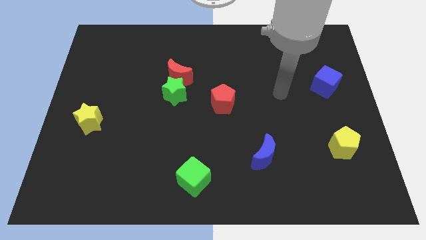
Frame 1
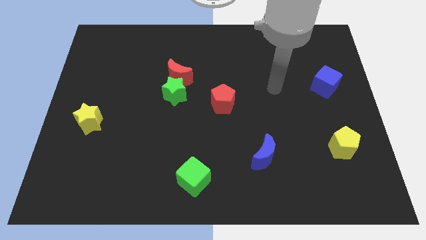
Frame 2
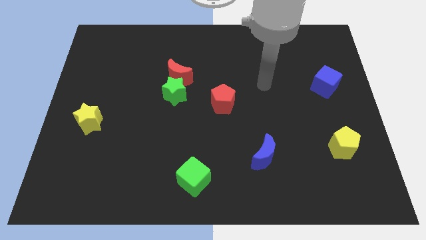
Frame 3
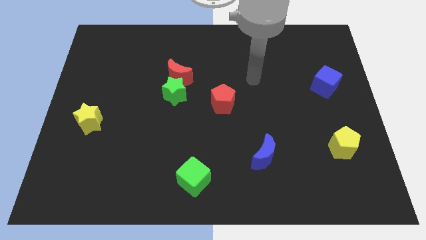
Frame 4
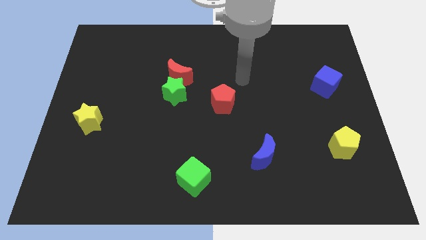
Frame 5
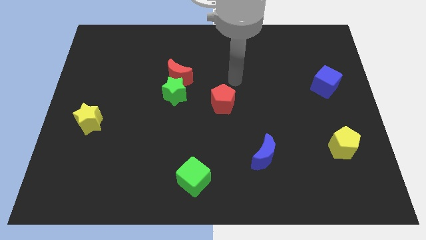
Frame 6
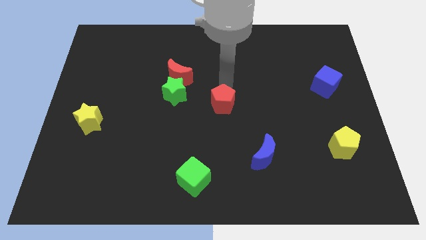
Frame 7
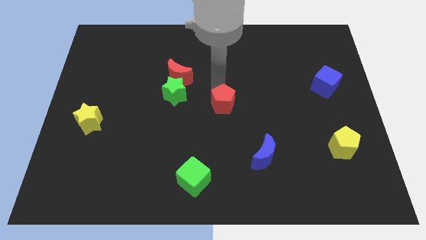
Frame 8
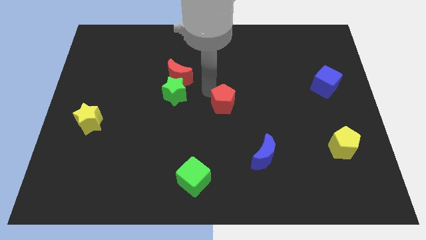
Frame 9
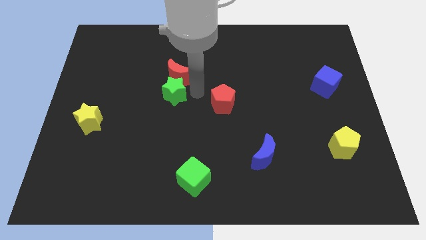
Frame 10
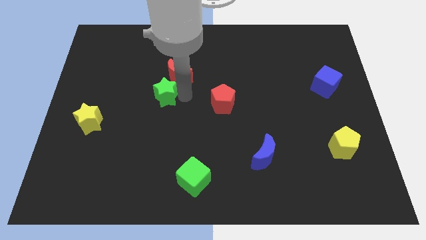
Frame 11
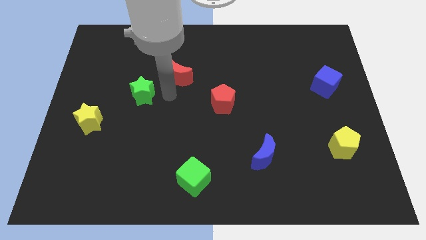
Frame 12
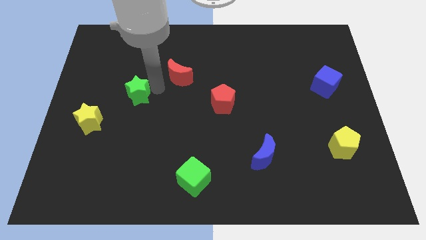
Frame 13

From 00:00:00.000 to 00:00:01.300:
move the red moon away from the green star

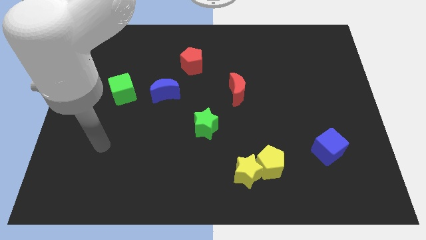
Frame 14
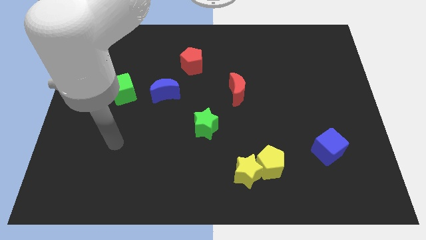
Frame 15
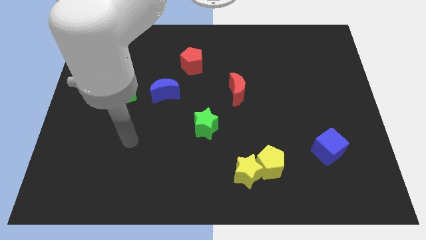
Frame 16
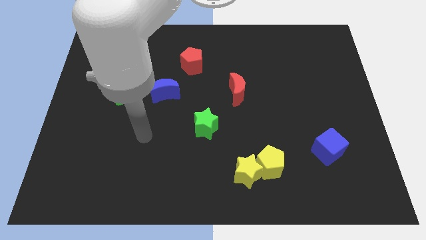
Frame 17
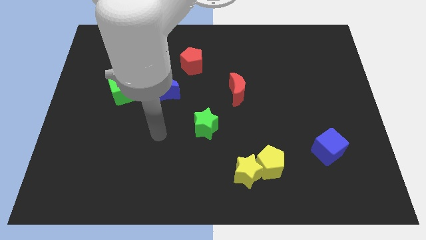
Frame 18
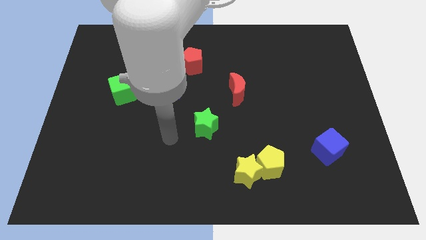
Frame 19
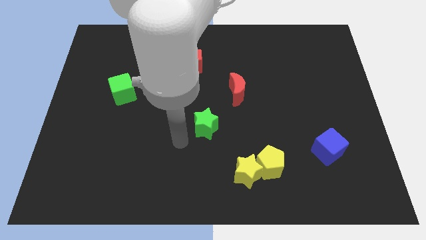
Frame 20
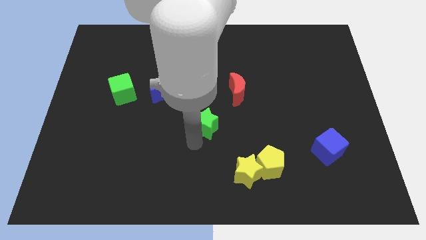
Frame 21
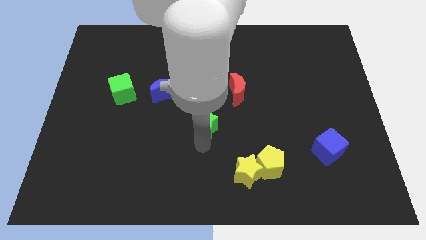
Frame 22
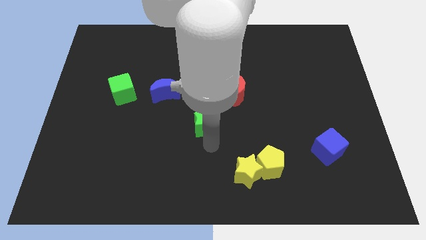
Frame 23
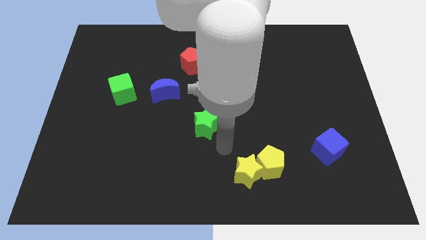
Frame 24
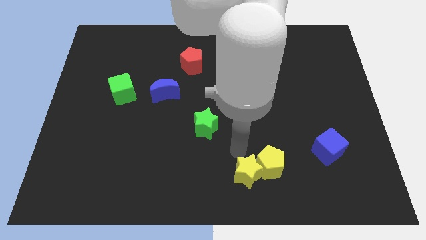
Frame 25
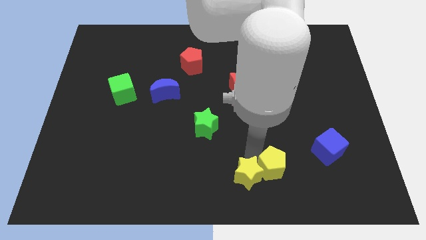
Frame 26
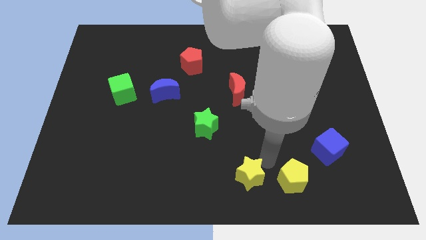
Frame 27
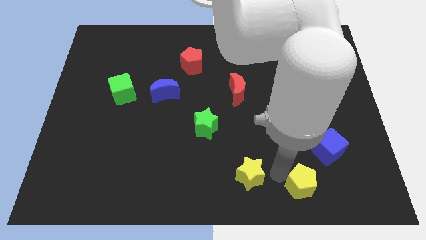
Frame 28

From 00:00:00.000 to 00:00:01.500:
pull the yellow star apart from the yellow pentagon

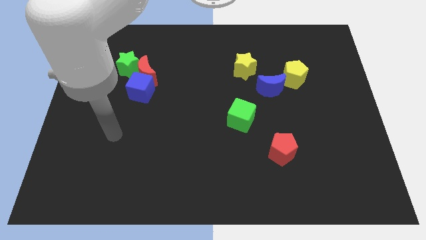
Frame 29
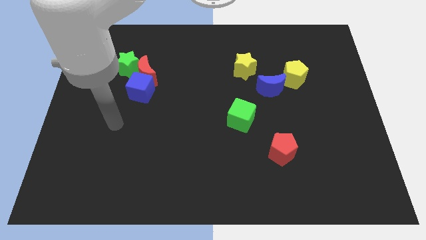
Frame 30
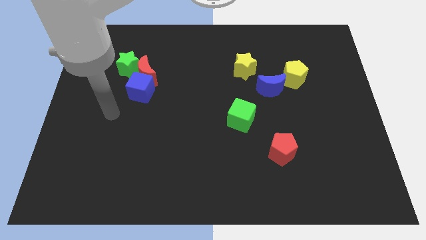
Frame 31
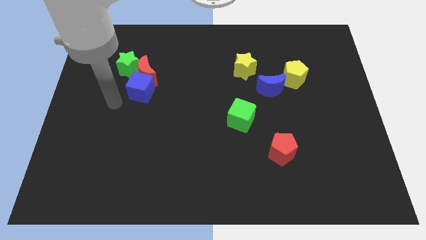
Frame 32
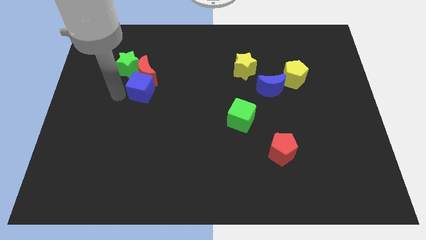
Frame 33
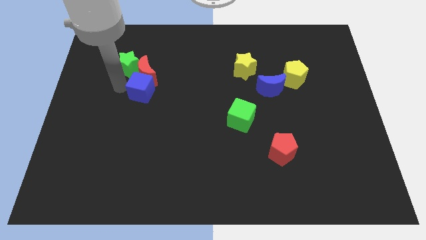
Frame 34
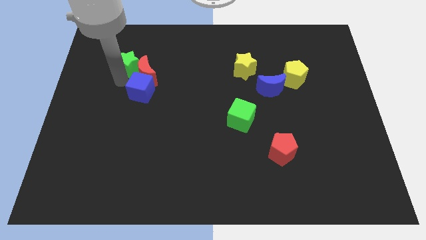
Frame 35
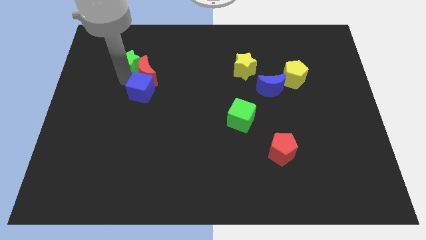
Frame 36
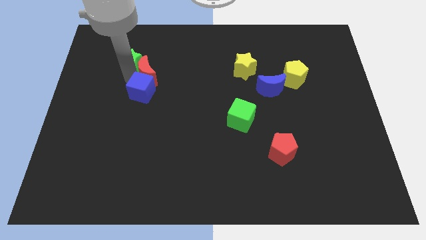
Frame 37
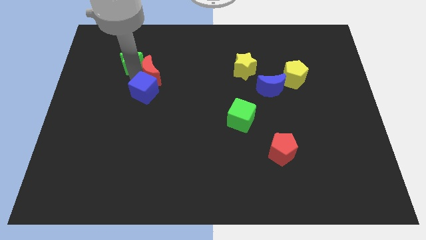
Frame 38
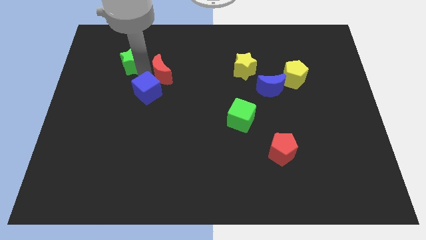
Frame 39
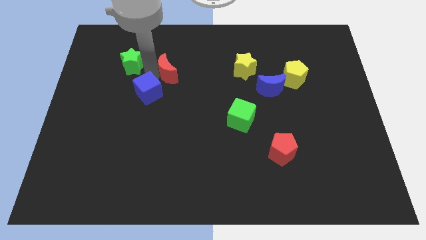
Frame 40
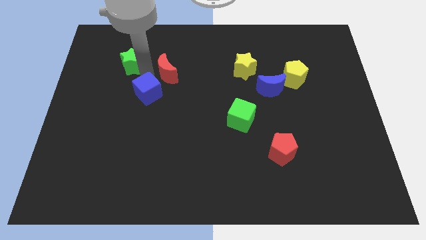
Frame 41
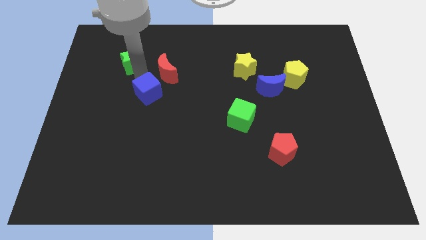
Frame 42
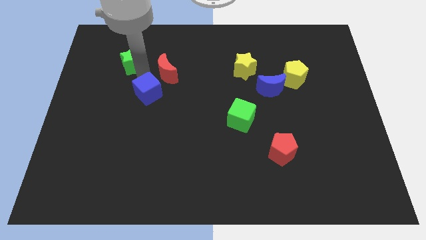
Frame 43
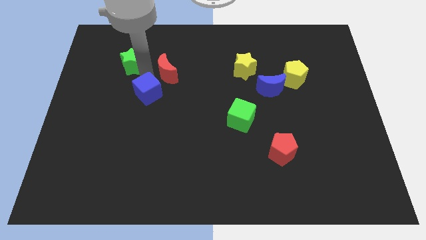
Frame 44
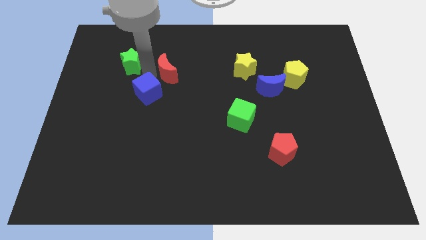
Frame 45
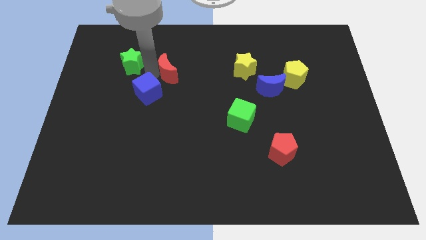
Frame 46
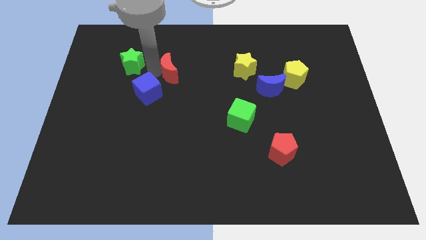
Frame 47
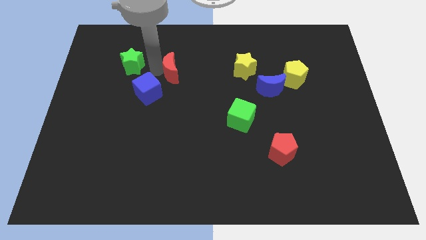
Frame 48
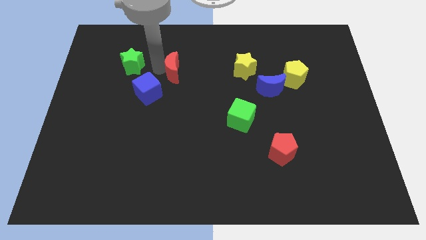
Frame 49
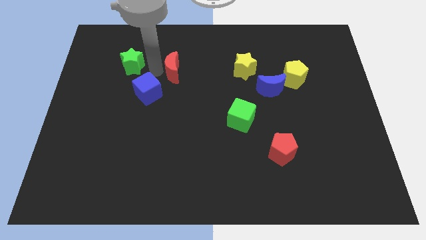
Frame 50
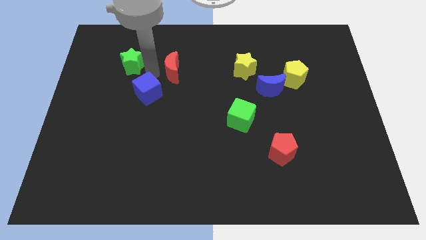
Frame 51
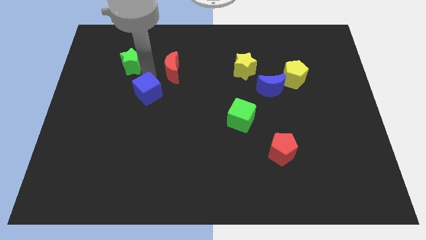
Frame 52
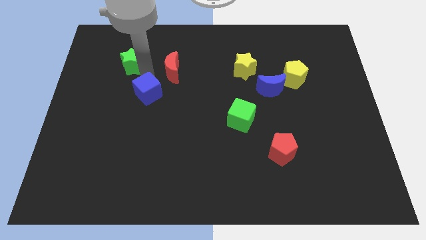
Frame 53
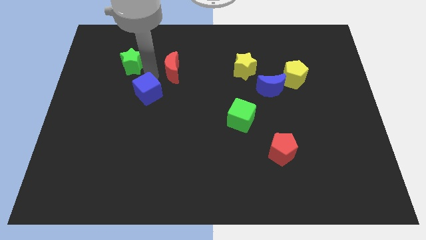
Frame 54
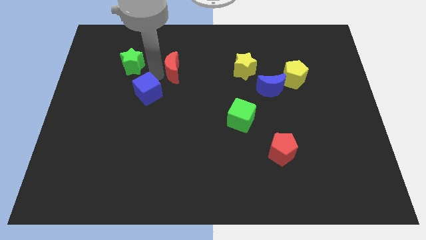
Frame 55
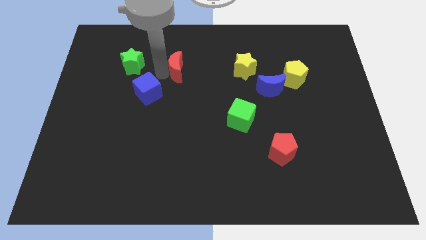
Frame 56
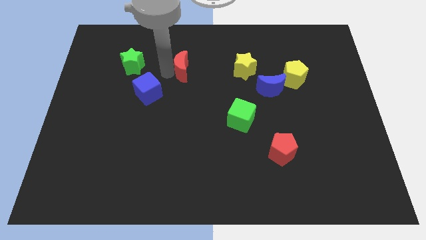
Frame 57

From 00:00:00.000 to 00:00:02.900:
separate the red moon from the blue cube and green star

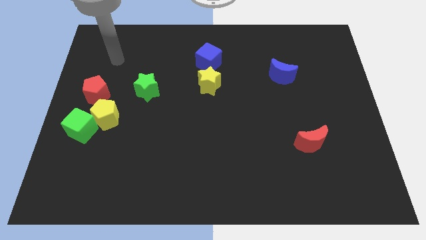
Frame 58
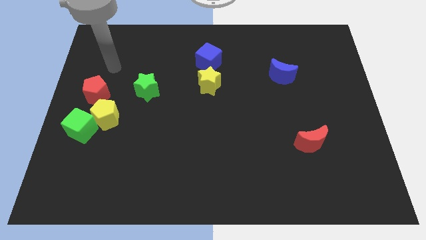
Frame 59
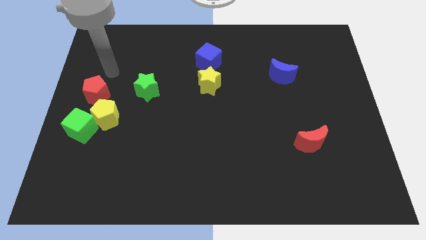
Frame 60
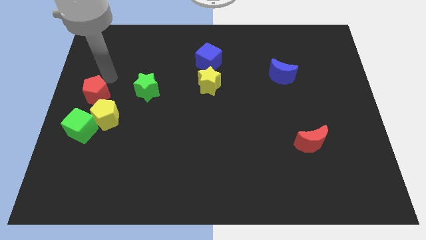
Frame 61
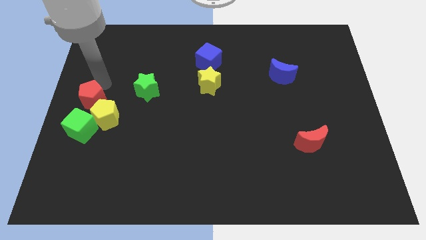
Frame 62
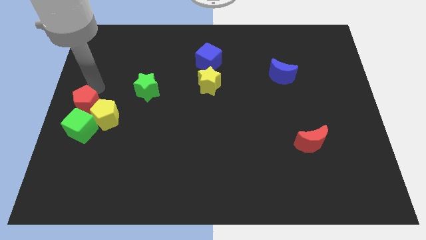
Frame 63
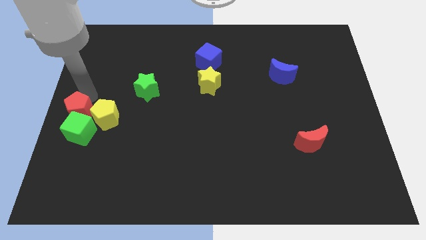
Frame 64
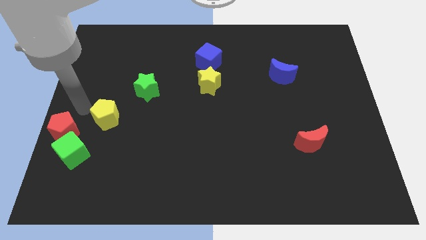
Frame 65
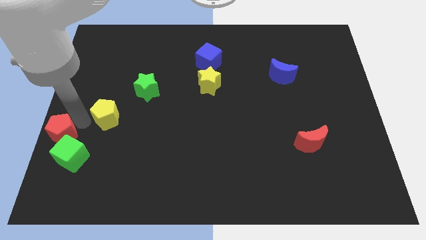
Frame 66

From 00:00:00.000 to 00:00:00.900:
pull the yellow pentagon apart from the green cube and red pentagon

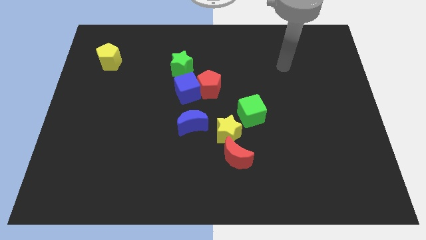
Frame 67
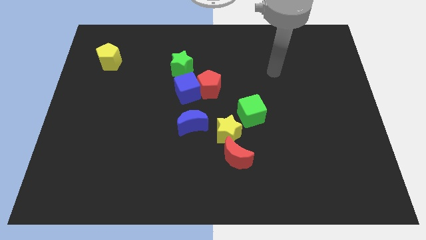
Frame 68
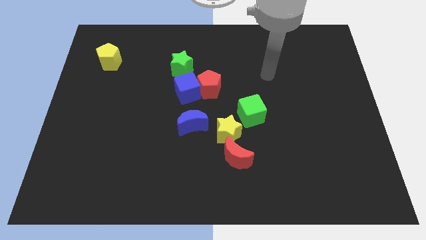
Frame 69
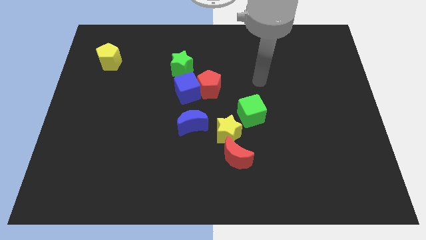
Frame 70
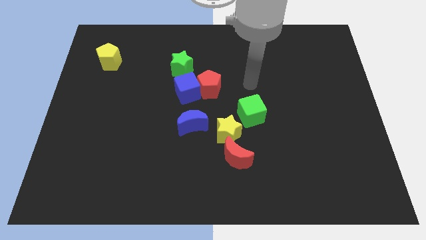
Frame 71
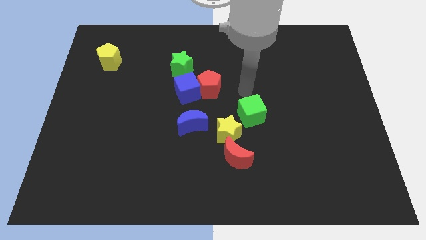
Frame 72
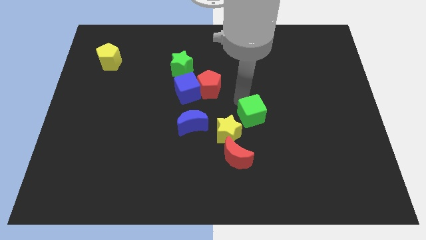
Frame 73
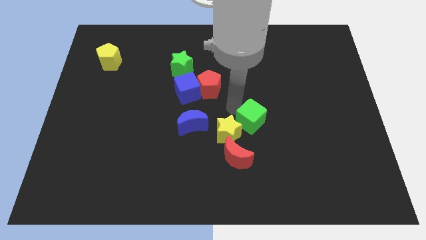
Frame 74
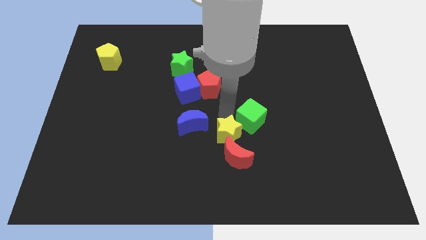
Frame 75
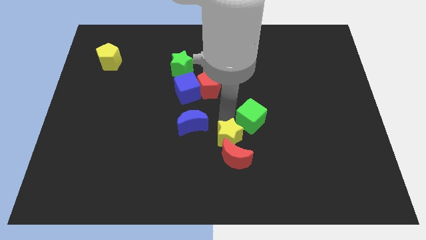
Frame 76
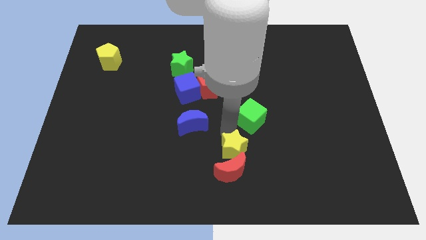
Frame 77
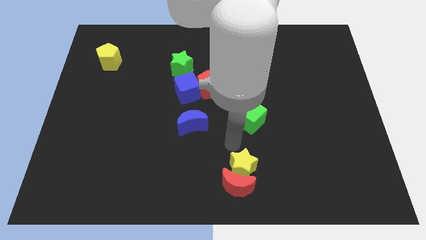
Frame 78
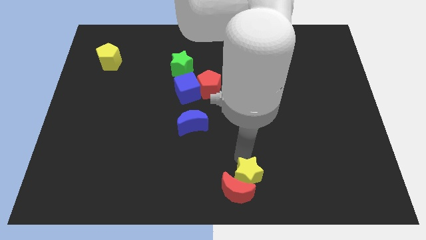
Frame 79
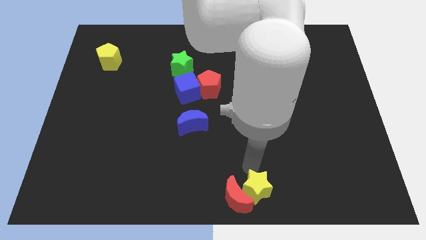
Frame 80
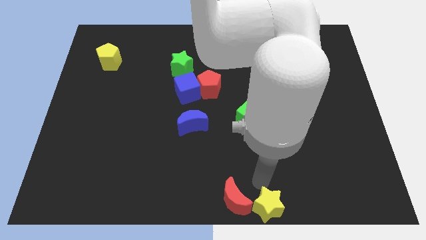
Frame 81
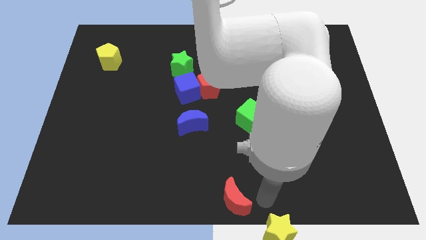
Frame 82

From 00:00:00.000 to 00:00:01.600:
move the red moon away from the yellow star

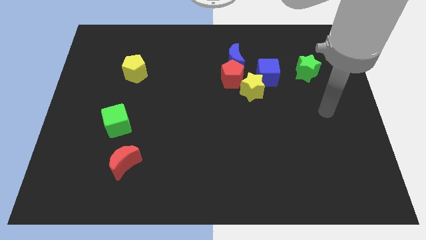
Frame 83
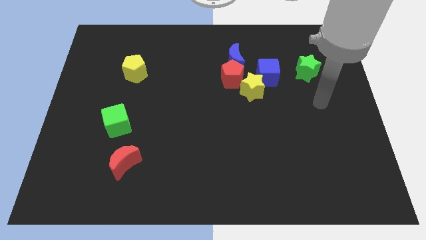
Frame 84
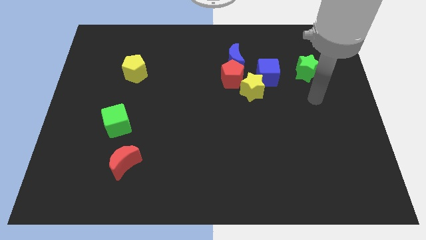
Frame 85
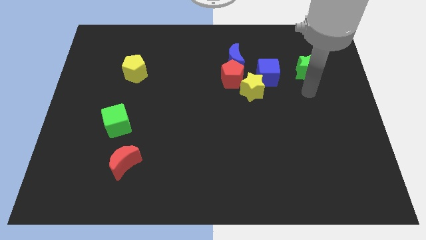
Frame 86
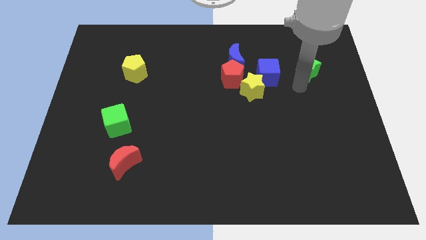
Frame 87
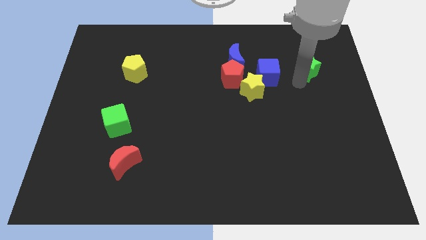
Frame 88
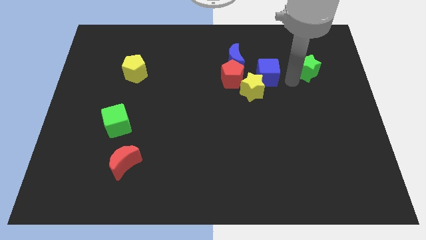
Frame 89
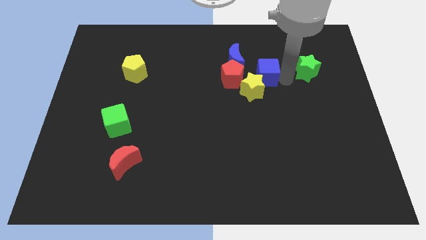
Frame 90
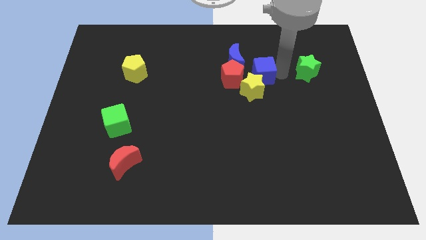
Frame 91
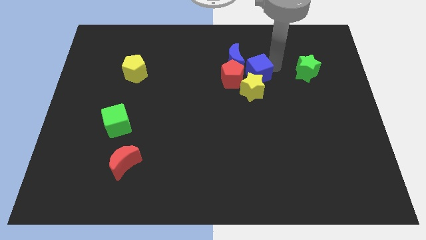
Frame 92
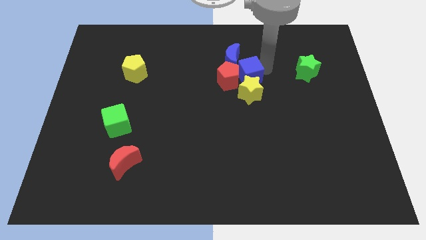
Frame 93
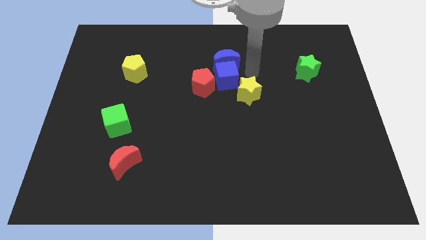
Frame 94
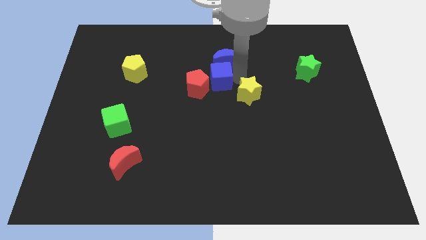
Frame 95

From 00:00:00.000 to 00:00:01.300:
pull the yellow star apart from the red pentagon and blue cube
